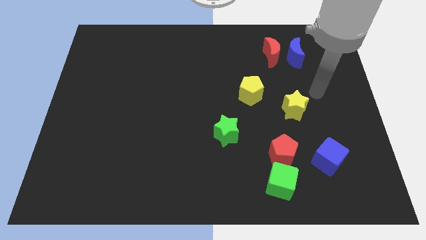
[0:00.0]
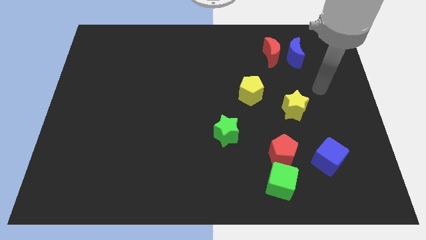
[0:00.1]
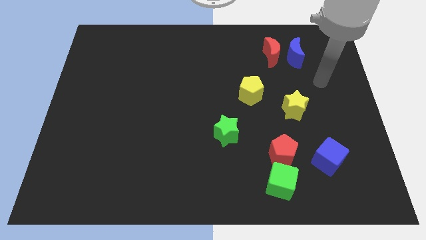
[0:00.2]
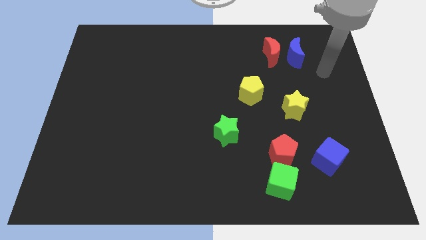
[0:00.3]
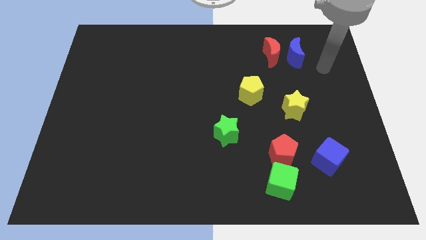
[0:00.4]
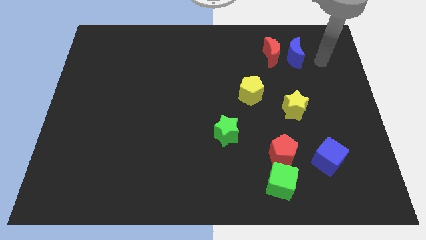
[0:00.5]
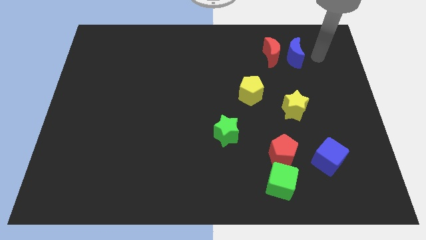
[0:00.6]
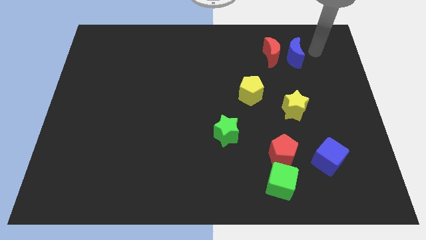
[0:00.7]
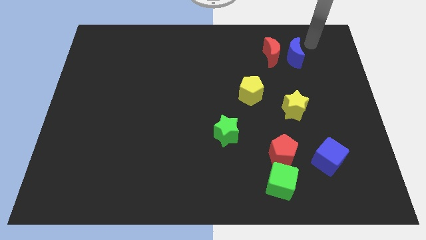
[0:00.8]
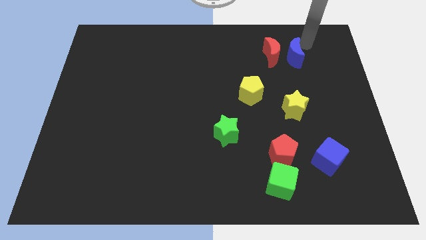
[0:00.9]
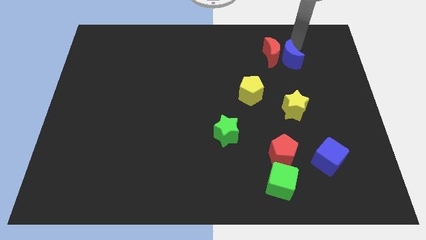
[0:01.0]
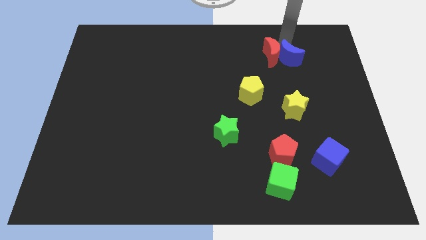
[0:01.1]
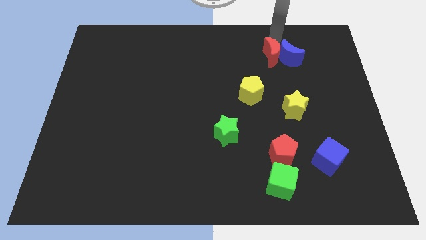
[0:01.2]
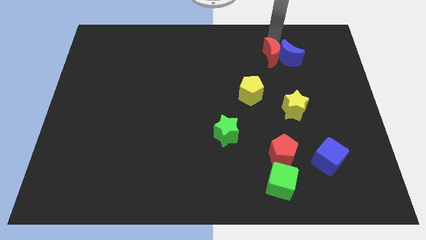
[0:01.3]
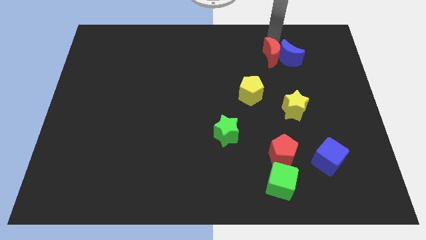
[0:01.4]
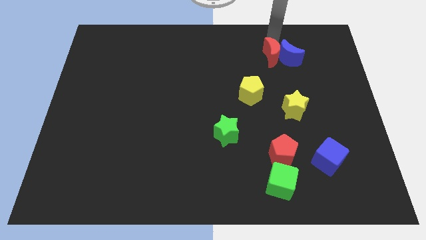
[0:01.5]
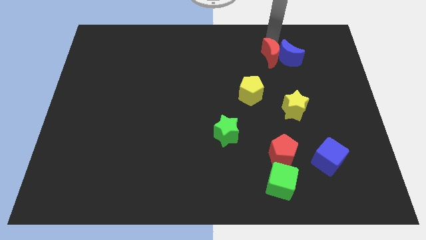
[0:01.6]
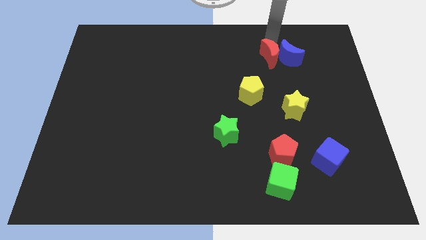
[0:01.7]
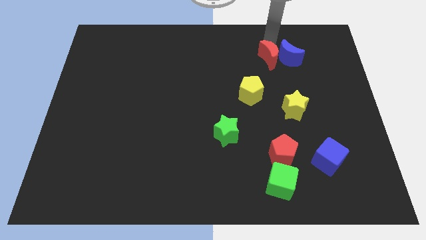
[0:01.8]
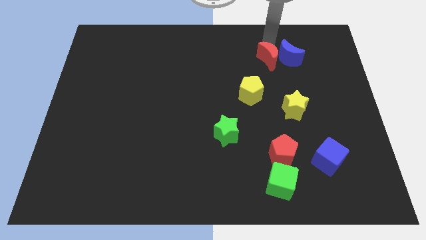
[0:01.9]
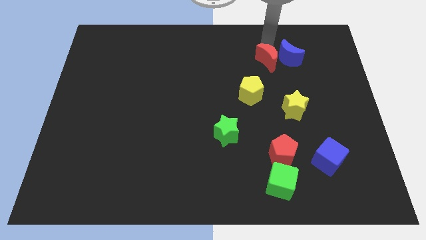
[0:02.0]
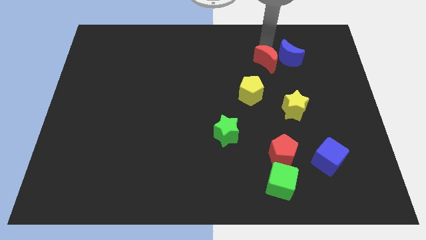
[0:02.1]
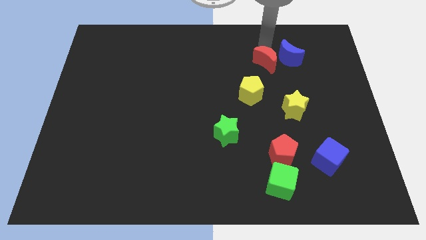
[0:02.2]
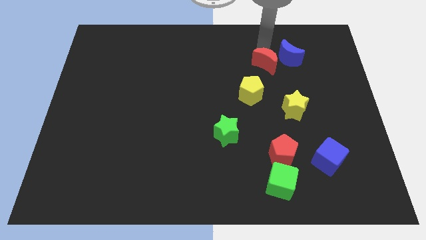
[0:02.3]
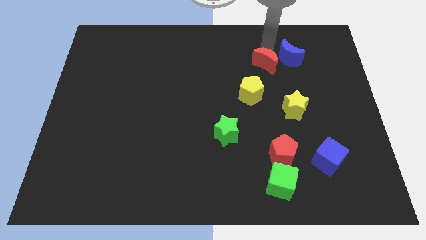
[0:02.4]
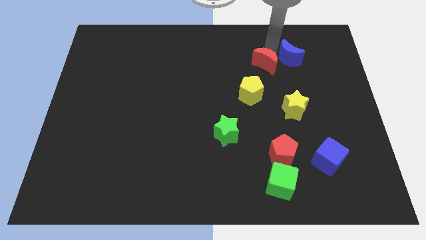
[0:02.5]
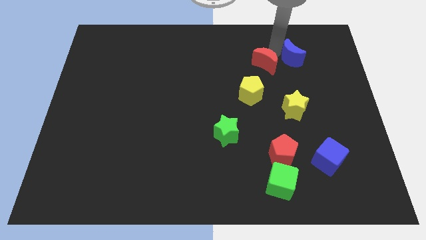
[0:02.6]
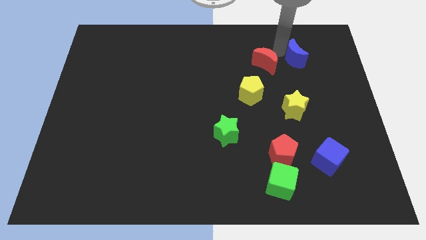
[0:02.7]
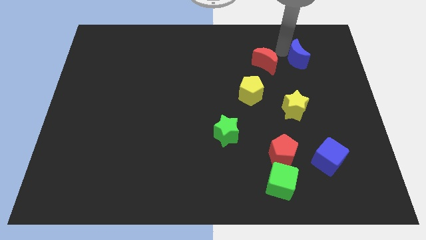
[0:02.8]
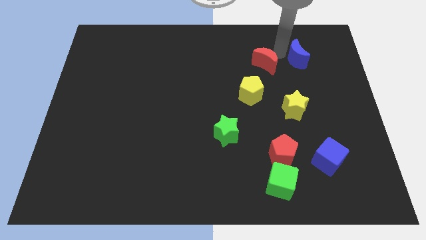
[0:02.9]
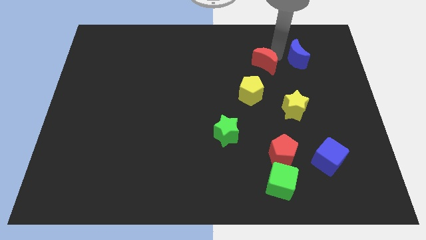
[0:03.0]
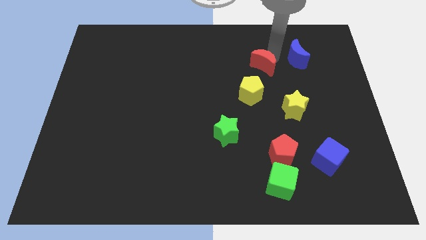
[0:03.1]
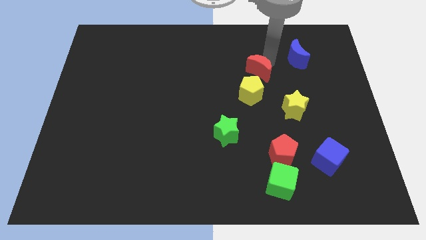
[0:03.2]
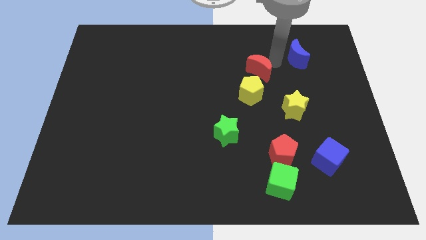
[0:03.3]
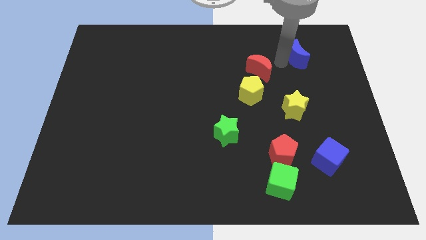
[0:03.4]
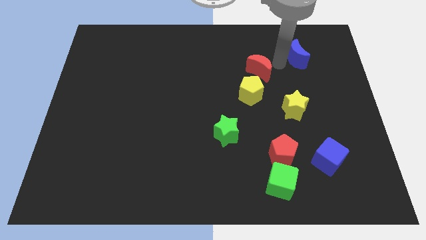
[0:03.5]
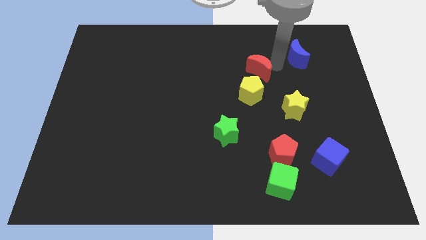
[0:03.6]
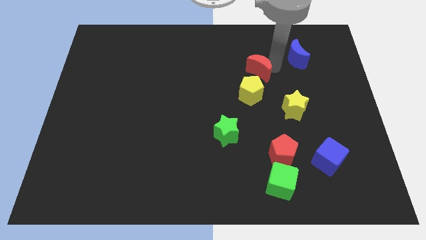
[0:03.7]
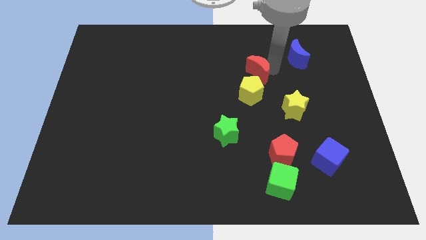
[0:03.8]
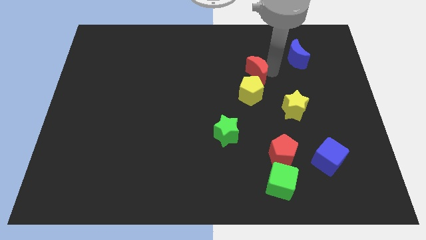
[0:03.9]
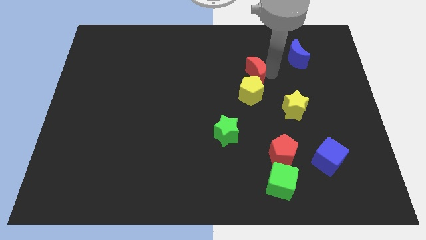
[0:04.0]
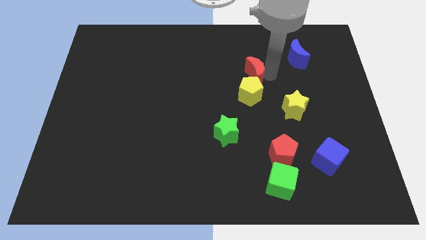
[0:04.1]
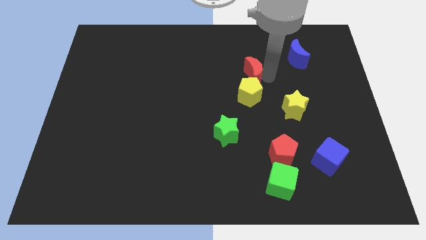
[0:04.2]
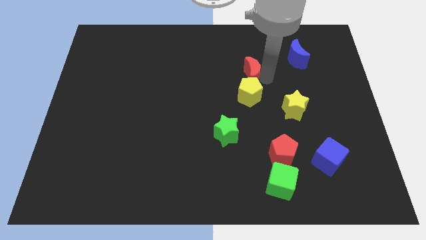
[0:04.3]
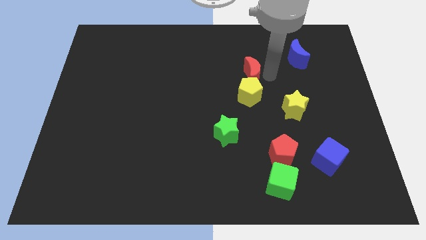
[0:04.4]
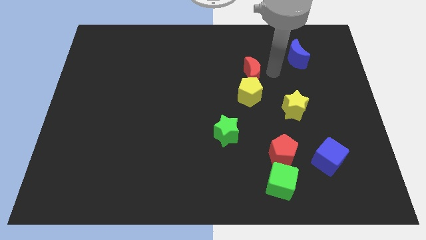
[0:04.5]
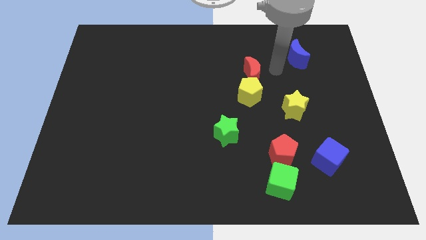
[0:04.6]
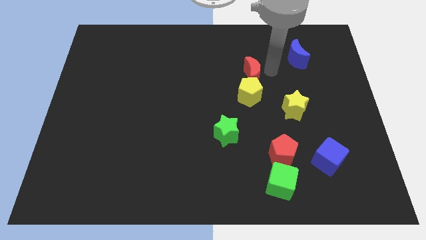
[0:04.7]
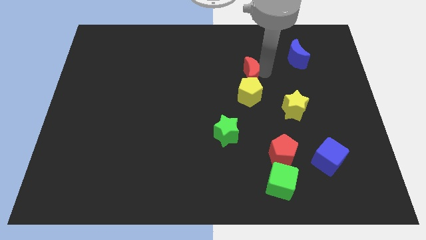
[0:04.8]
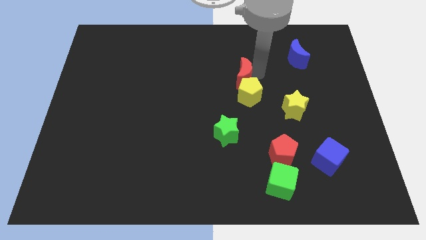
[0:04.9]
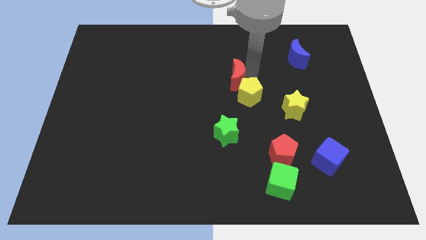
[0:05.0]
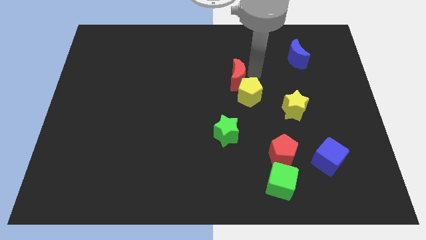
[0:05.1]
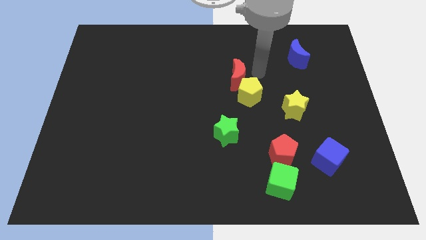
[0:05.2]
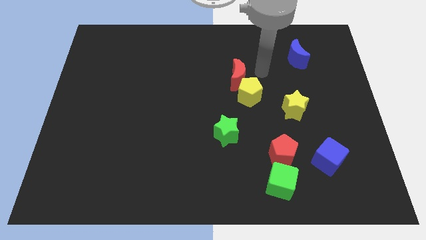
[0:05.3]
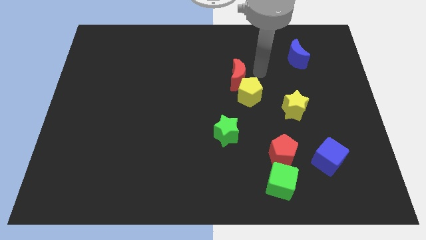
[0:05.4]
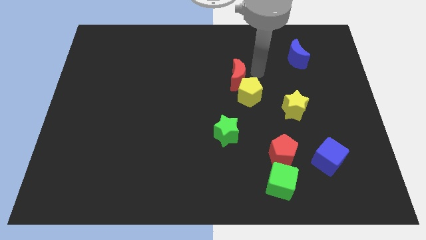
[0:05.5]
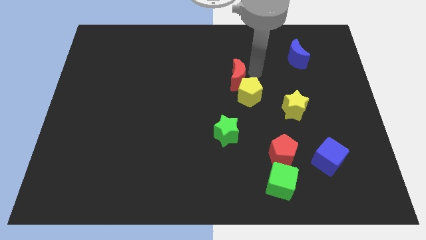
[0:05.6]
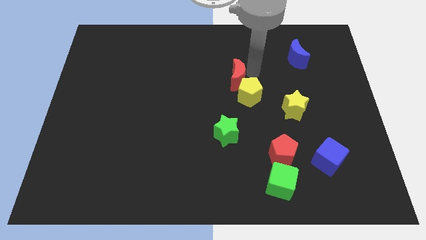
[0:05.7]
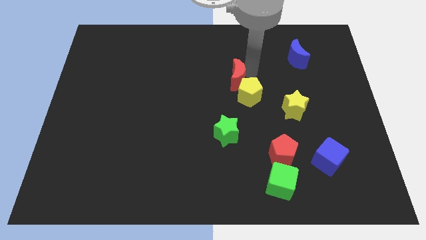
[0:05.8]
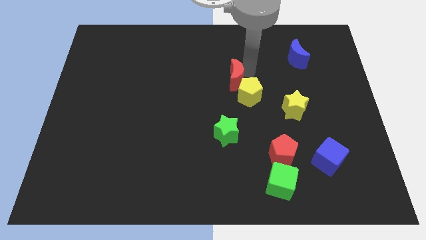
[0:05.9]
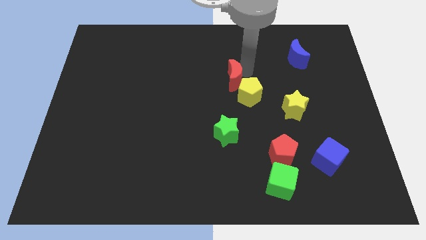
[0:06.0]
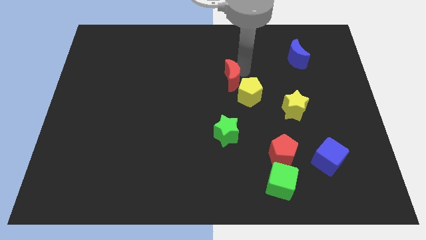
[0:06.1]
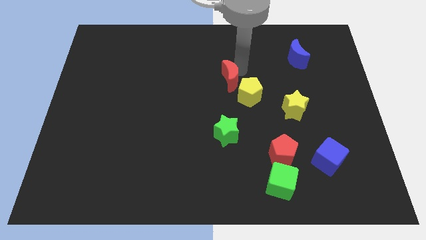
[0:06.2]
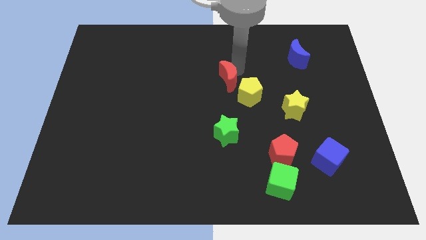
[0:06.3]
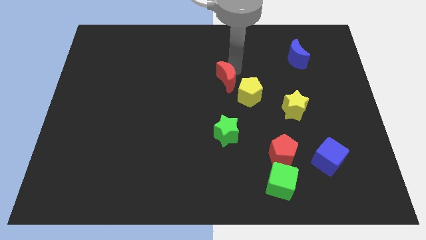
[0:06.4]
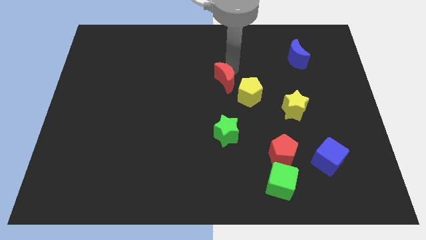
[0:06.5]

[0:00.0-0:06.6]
slide the red moon just left of the yellow pentagon
